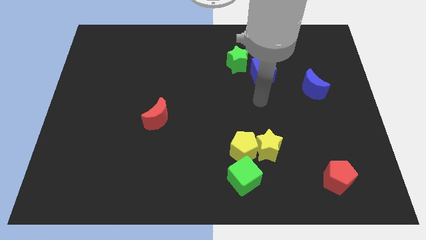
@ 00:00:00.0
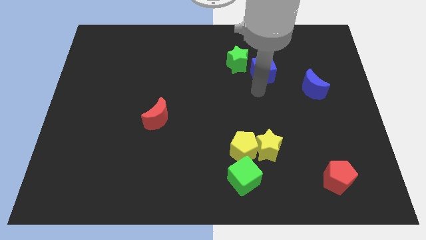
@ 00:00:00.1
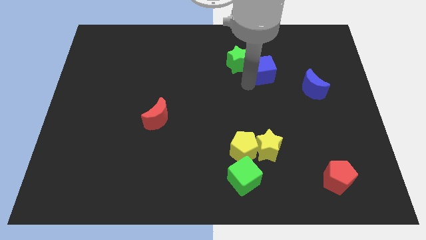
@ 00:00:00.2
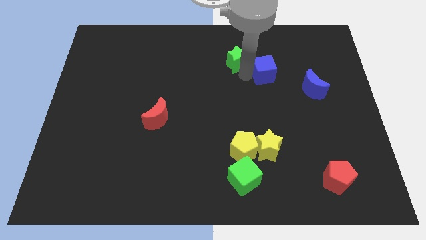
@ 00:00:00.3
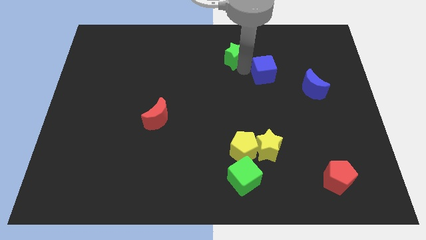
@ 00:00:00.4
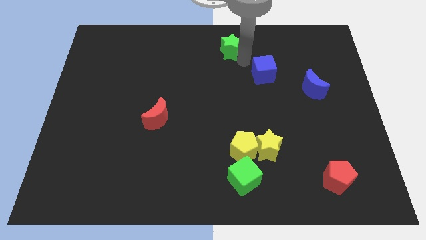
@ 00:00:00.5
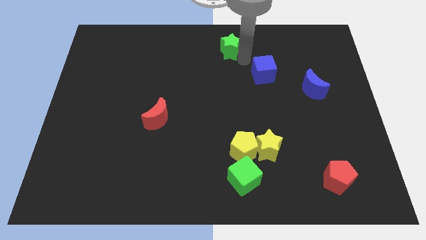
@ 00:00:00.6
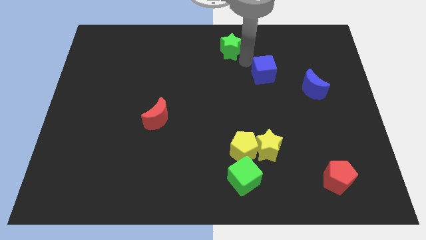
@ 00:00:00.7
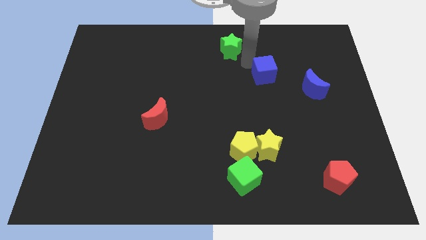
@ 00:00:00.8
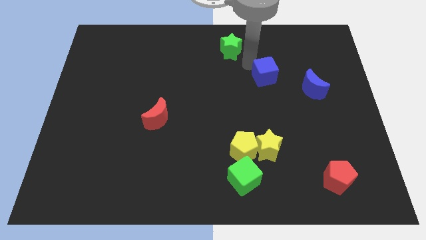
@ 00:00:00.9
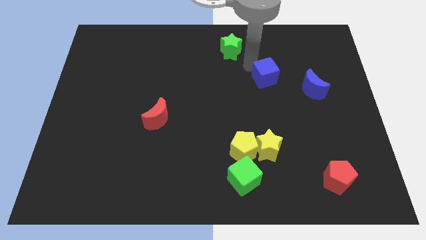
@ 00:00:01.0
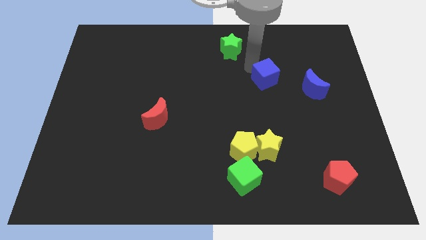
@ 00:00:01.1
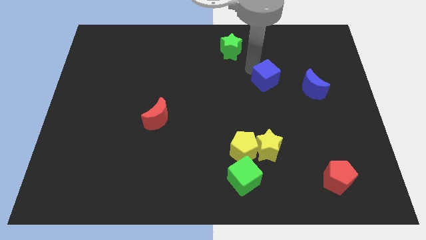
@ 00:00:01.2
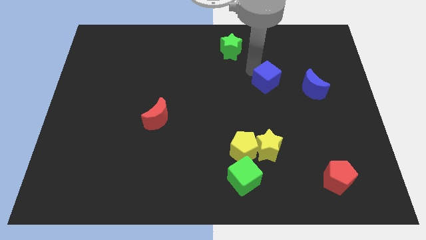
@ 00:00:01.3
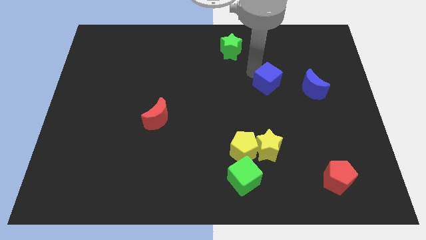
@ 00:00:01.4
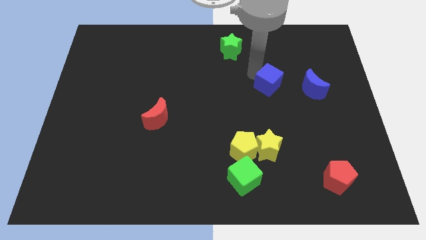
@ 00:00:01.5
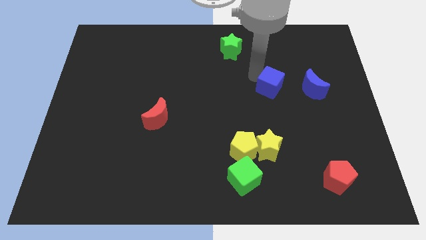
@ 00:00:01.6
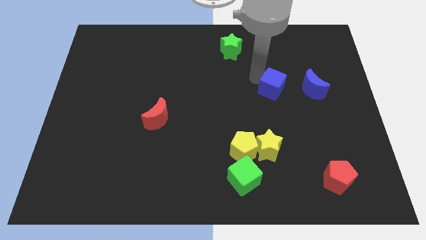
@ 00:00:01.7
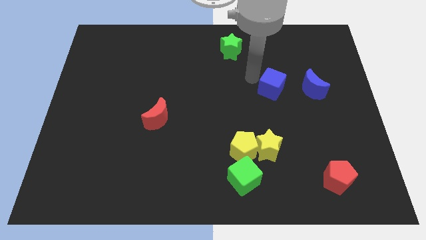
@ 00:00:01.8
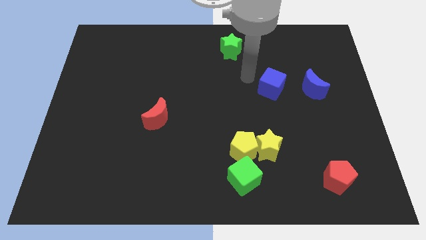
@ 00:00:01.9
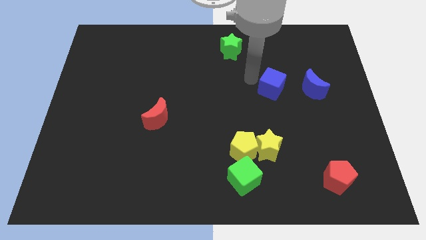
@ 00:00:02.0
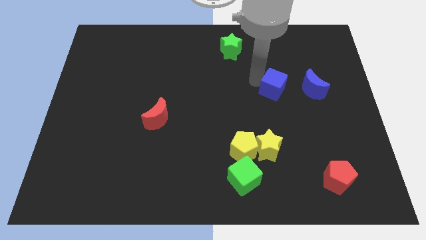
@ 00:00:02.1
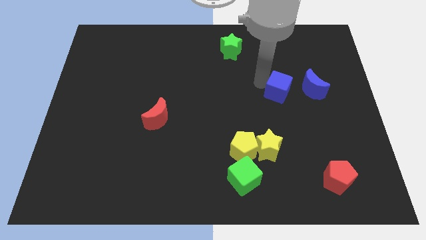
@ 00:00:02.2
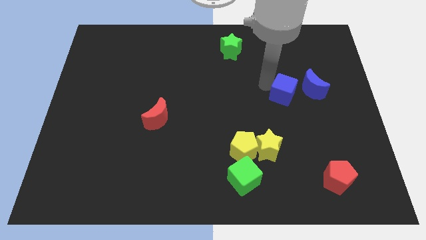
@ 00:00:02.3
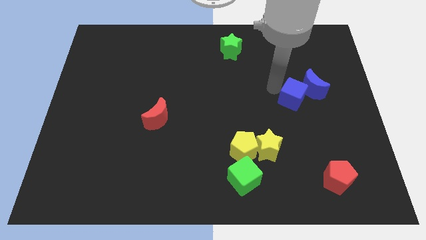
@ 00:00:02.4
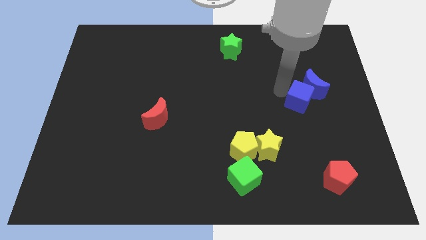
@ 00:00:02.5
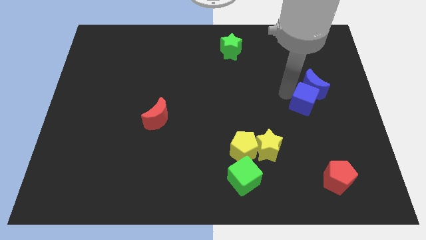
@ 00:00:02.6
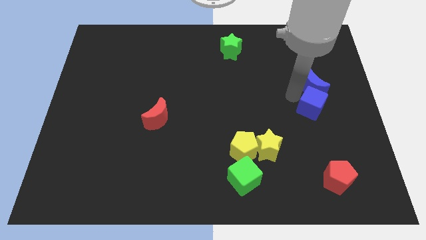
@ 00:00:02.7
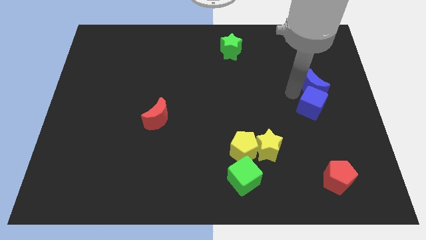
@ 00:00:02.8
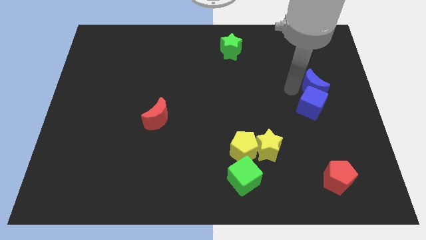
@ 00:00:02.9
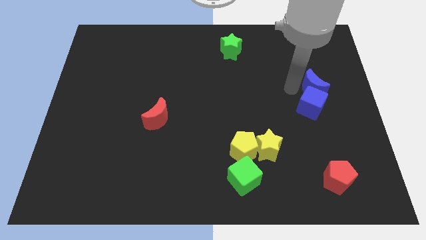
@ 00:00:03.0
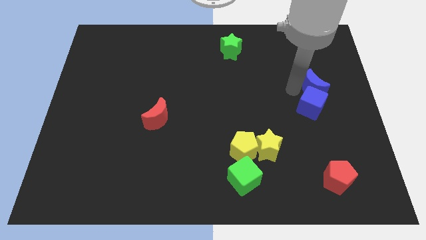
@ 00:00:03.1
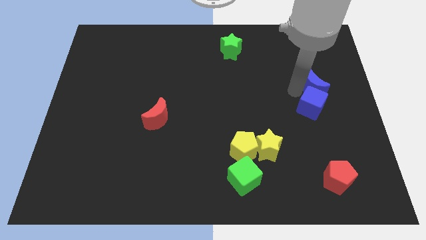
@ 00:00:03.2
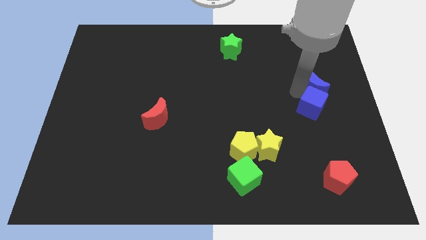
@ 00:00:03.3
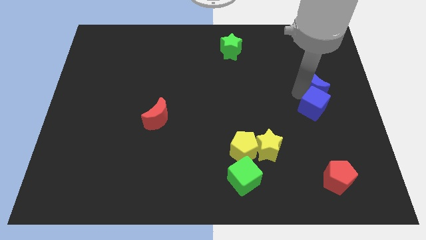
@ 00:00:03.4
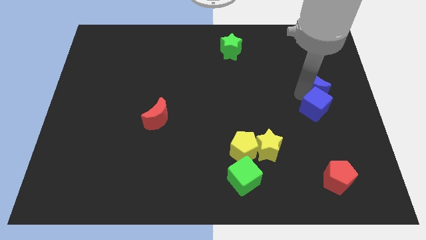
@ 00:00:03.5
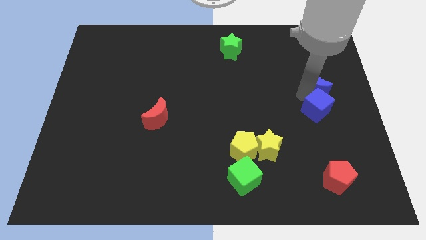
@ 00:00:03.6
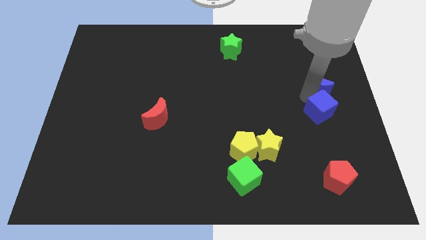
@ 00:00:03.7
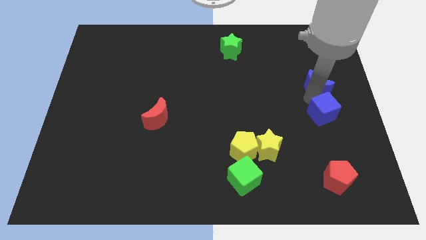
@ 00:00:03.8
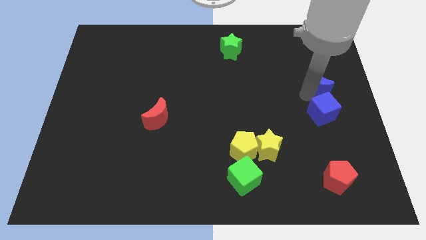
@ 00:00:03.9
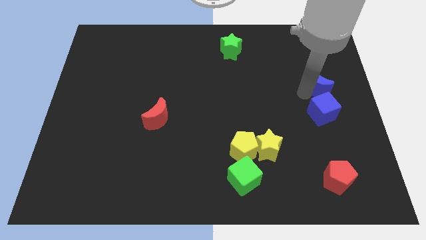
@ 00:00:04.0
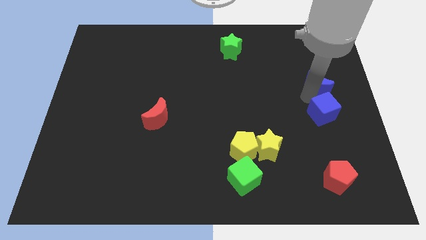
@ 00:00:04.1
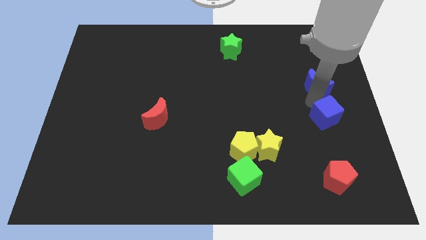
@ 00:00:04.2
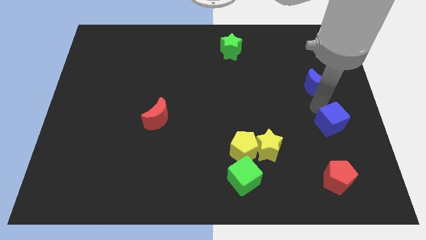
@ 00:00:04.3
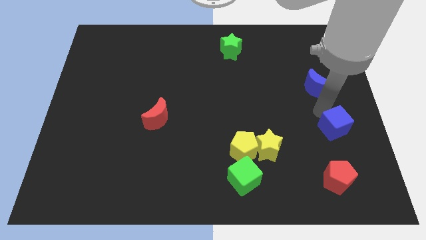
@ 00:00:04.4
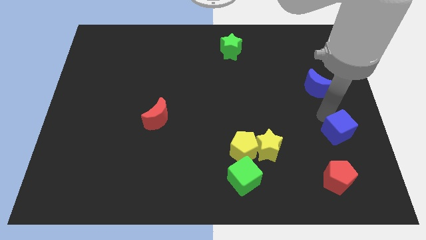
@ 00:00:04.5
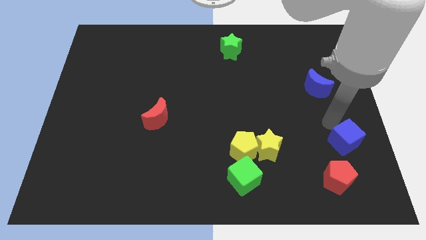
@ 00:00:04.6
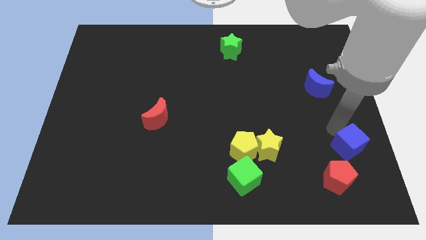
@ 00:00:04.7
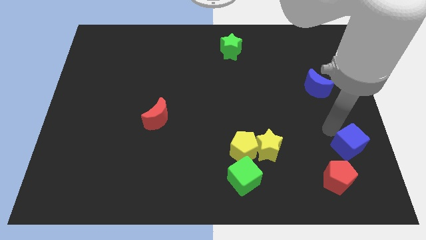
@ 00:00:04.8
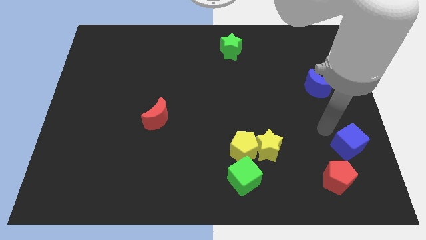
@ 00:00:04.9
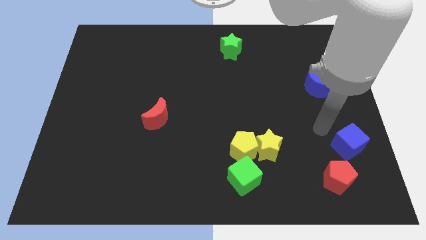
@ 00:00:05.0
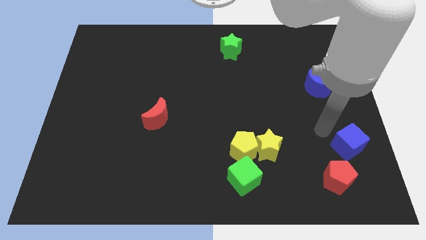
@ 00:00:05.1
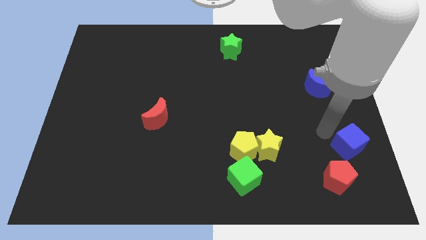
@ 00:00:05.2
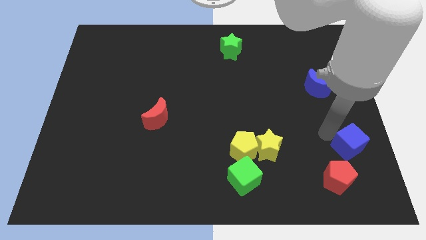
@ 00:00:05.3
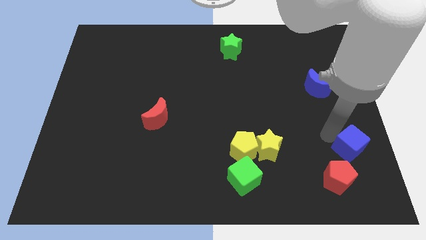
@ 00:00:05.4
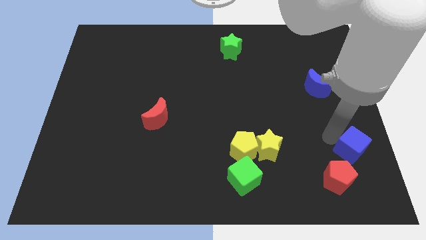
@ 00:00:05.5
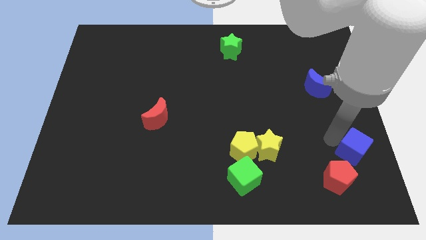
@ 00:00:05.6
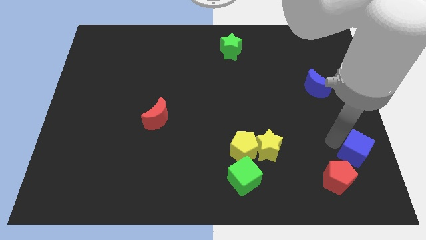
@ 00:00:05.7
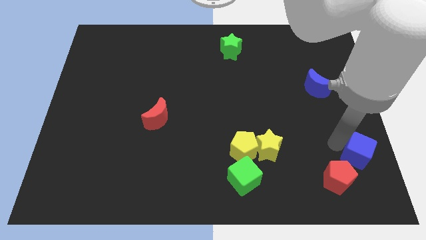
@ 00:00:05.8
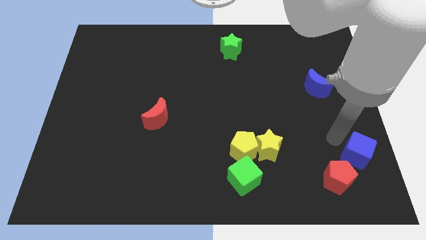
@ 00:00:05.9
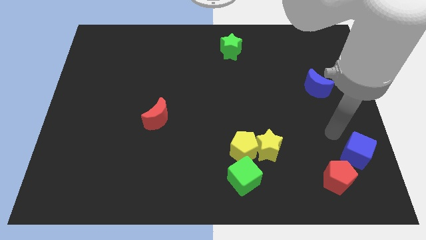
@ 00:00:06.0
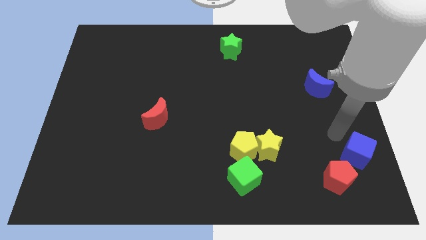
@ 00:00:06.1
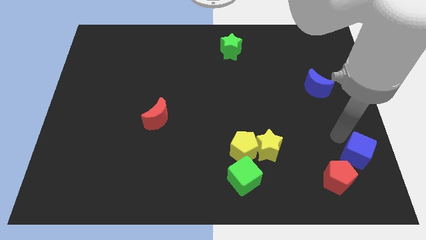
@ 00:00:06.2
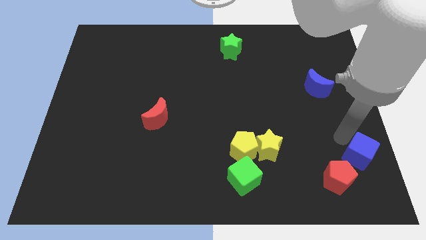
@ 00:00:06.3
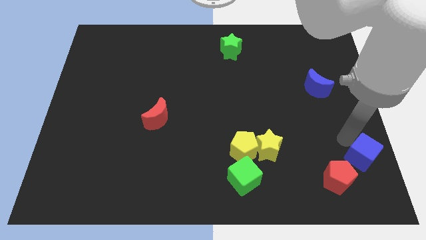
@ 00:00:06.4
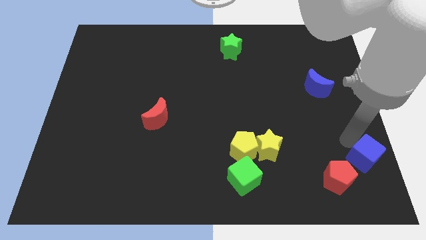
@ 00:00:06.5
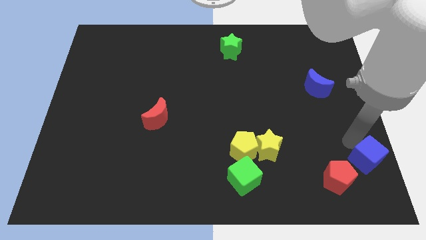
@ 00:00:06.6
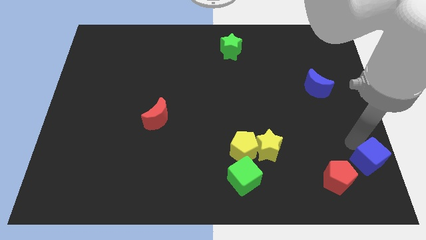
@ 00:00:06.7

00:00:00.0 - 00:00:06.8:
slide the blue cube to the bottom right of the board
